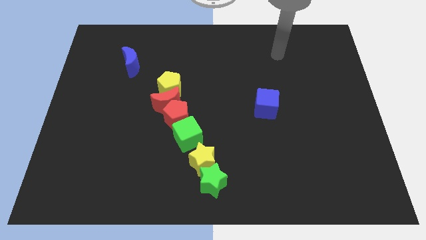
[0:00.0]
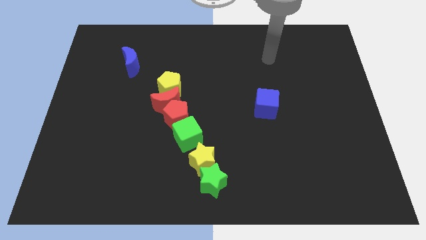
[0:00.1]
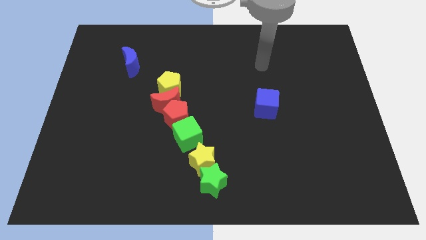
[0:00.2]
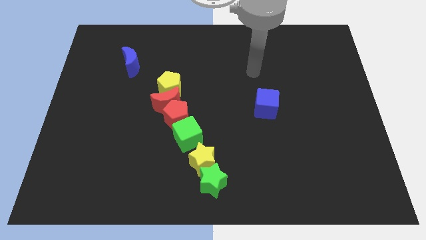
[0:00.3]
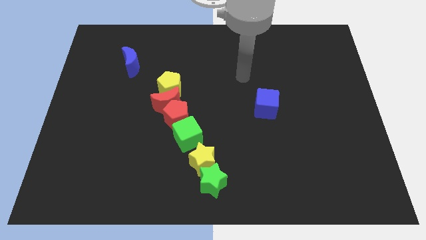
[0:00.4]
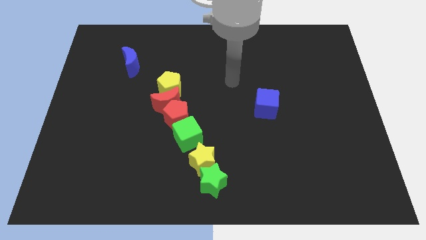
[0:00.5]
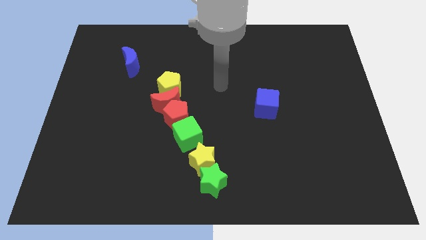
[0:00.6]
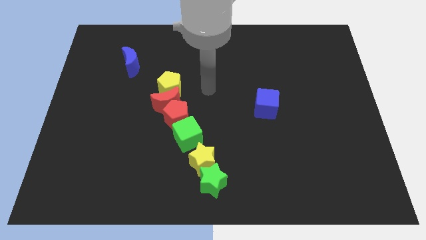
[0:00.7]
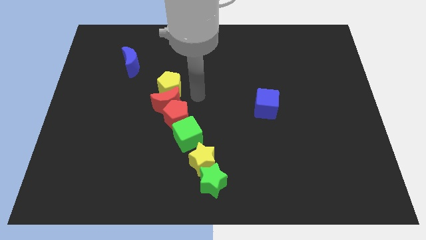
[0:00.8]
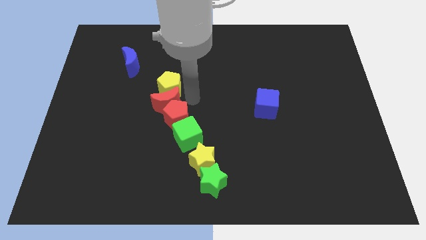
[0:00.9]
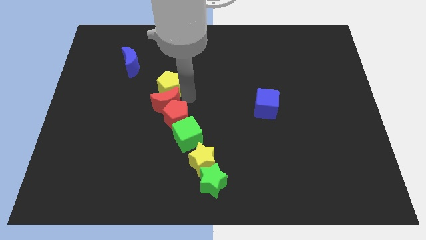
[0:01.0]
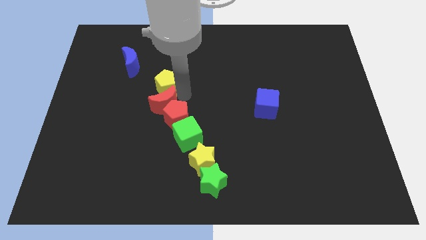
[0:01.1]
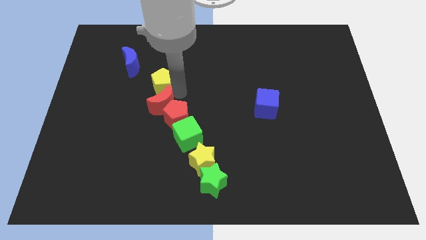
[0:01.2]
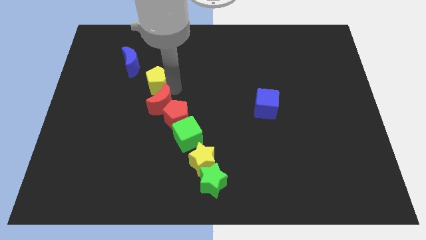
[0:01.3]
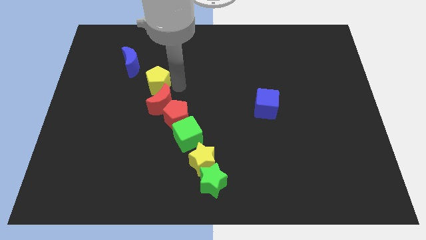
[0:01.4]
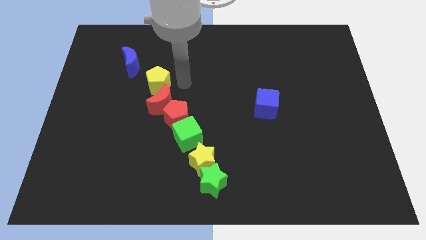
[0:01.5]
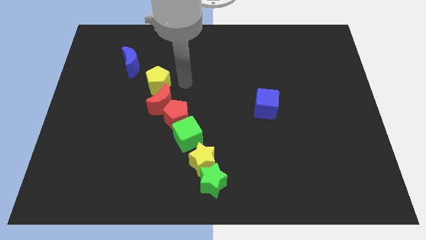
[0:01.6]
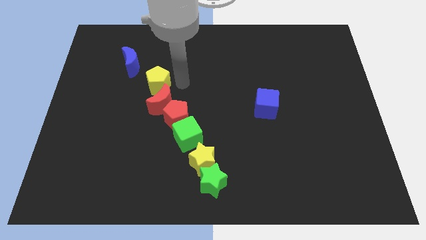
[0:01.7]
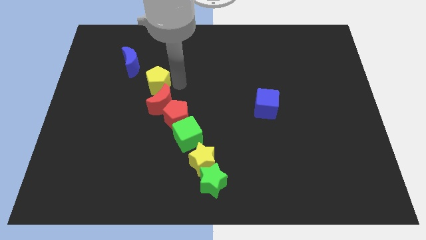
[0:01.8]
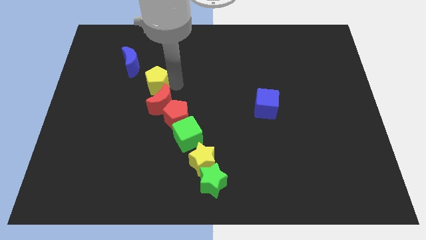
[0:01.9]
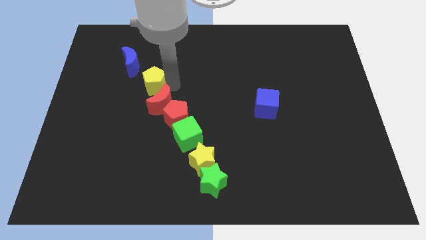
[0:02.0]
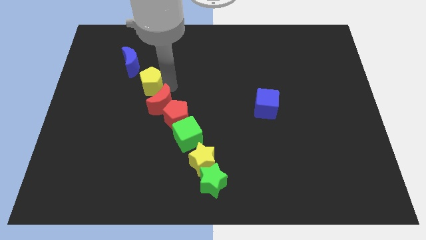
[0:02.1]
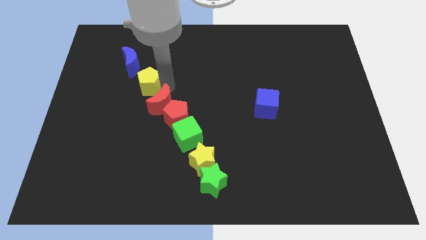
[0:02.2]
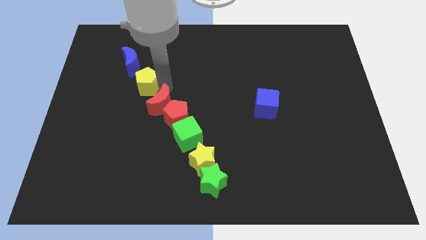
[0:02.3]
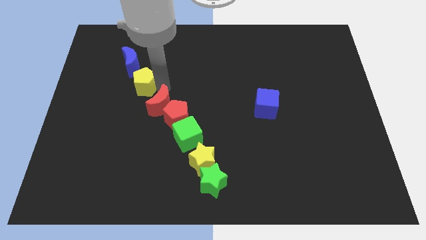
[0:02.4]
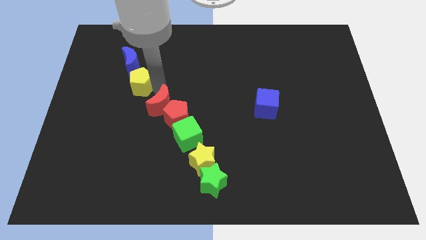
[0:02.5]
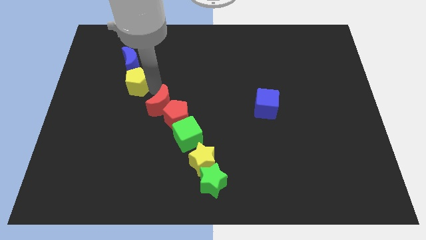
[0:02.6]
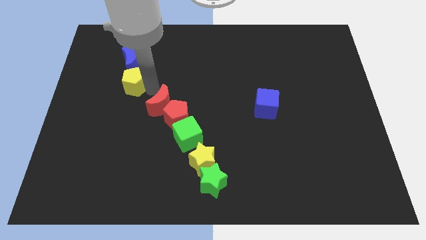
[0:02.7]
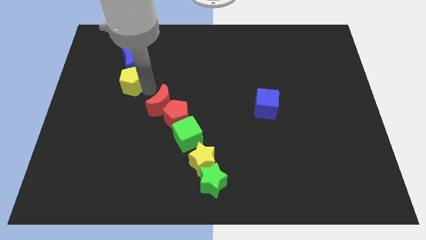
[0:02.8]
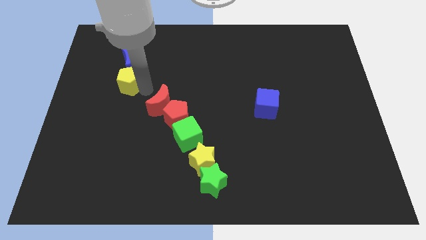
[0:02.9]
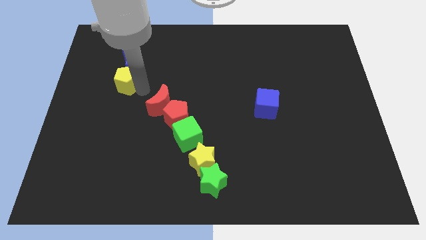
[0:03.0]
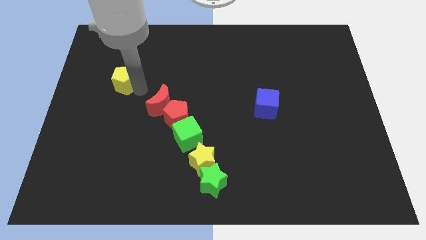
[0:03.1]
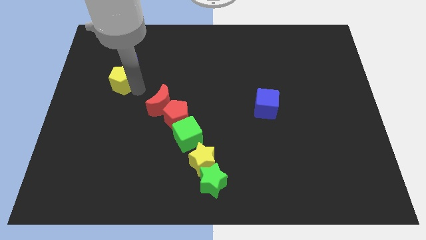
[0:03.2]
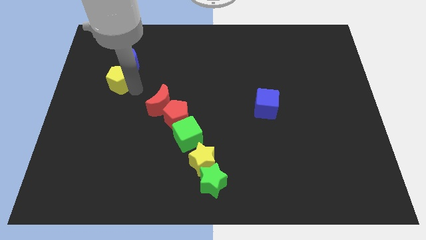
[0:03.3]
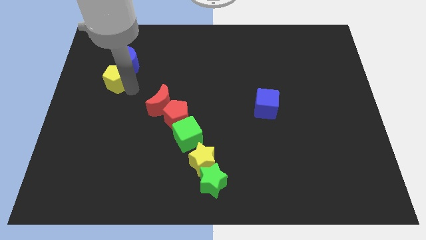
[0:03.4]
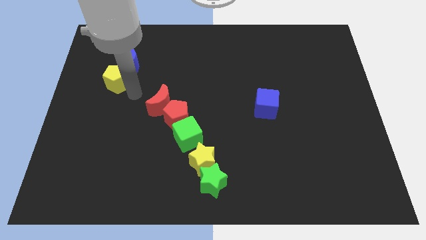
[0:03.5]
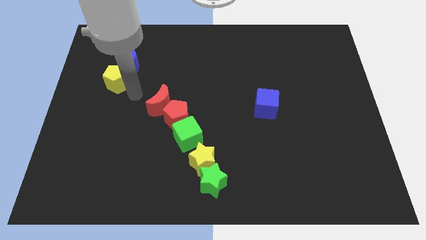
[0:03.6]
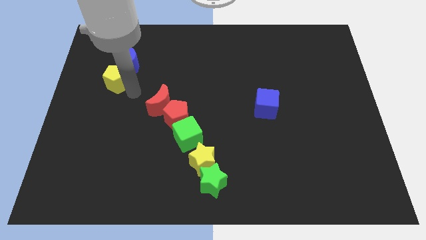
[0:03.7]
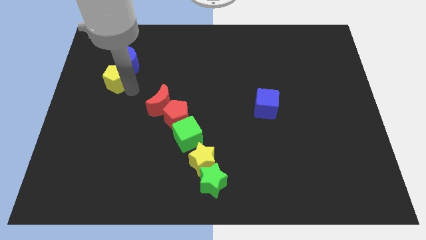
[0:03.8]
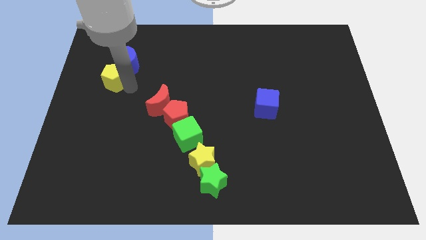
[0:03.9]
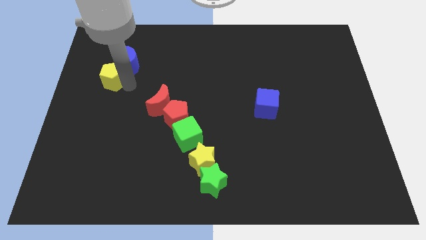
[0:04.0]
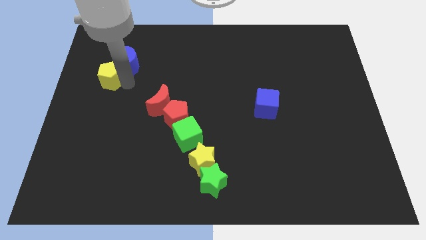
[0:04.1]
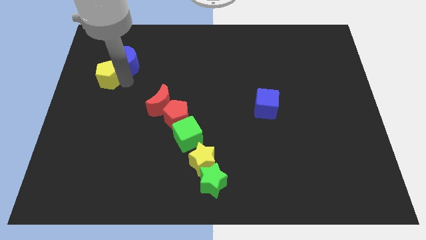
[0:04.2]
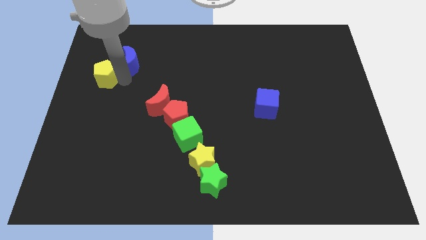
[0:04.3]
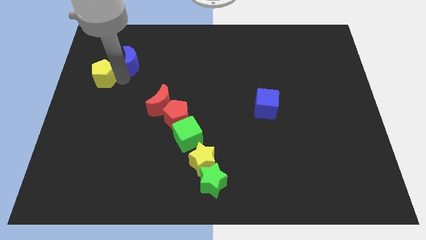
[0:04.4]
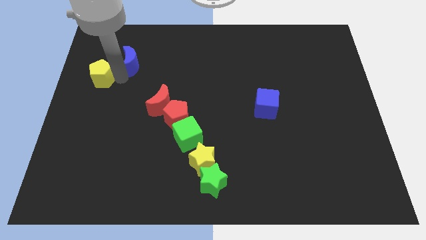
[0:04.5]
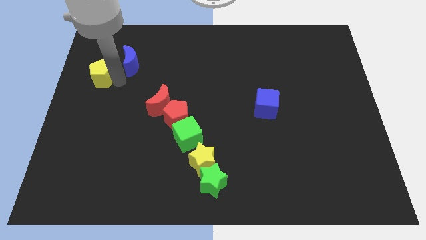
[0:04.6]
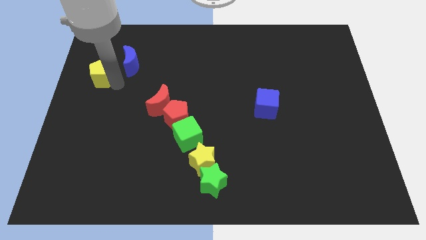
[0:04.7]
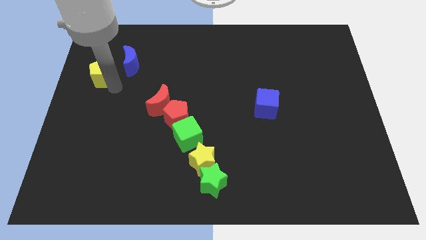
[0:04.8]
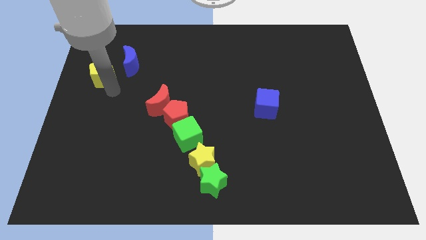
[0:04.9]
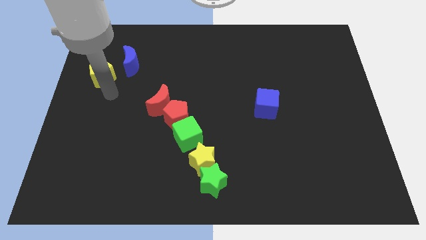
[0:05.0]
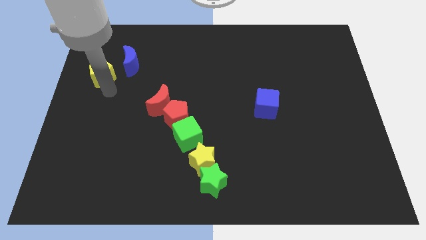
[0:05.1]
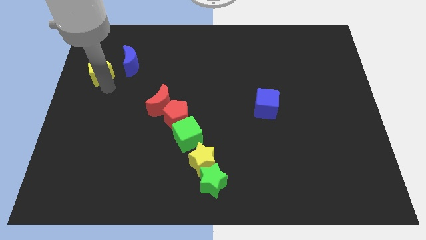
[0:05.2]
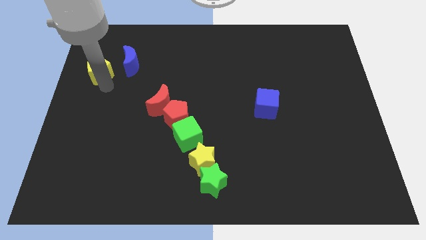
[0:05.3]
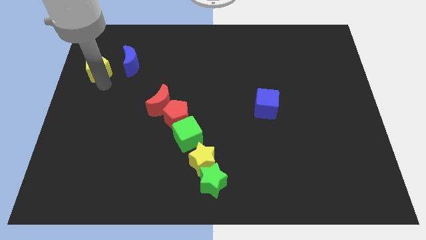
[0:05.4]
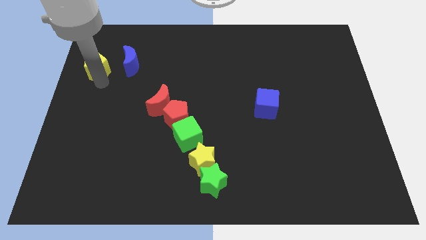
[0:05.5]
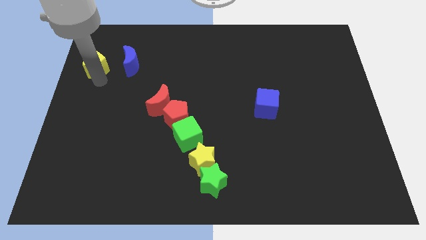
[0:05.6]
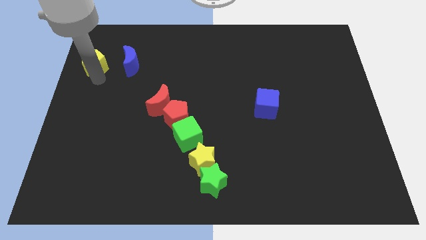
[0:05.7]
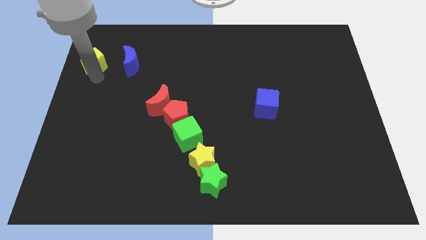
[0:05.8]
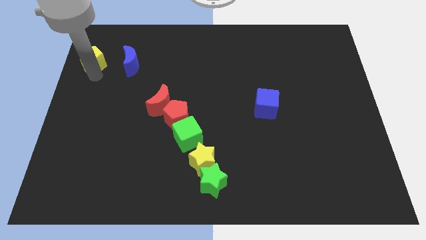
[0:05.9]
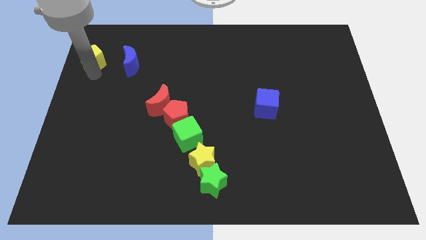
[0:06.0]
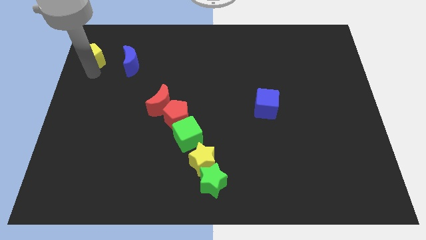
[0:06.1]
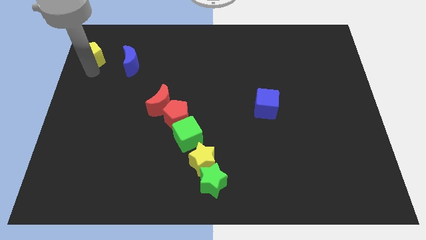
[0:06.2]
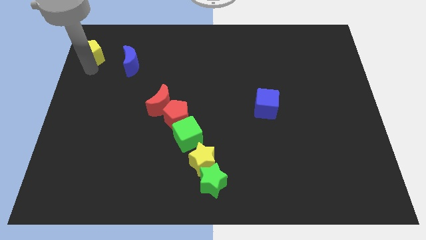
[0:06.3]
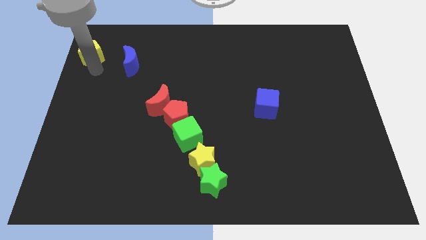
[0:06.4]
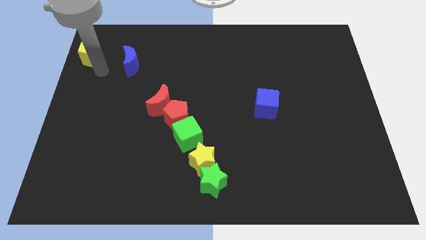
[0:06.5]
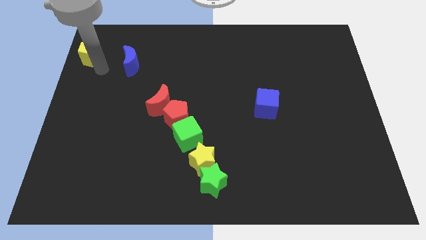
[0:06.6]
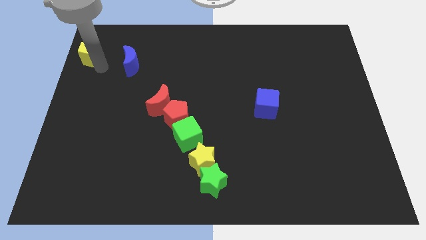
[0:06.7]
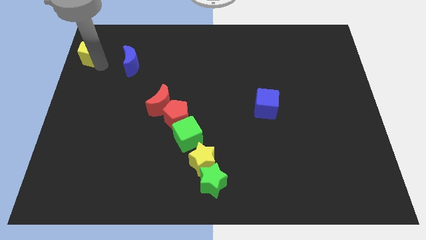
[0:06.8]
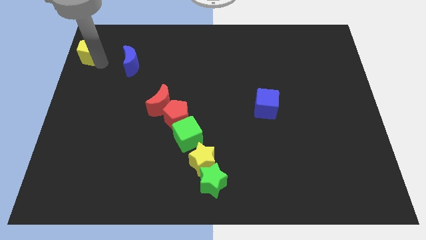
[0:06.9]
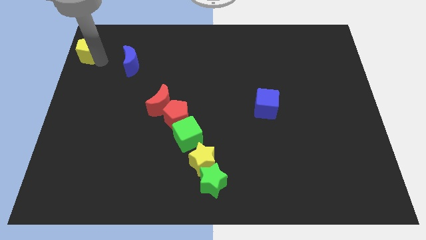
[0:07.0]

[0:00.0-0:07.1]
slide the yellow pentagon to the top left corner
